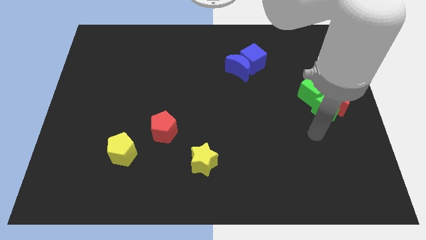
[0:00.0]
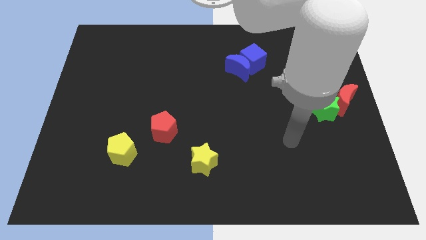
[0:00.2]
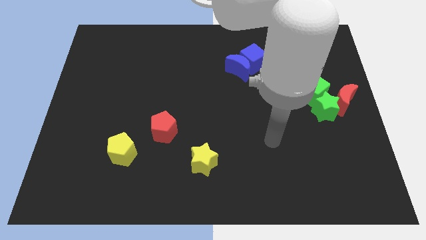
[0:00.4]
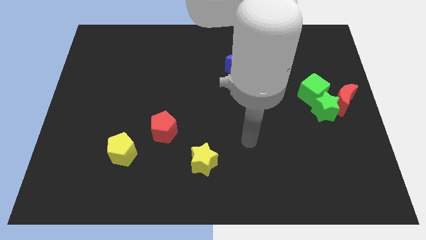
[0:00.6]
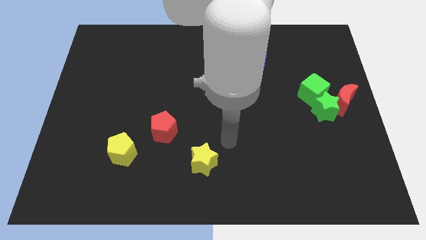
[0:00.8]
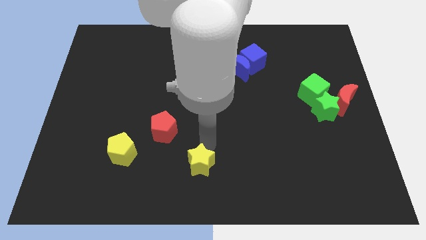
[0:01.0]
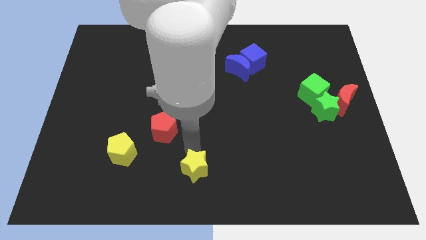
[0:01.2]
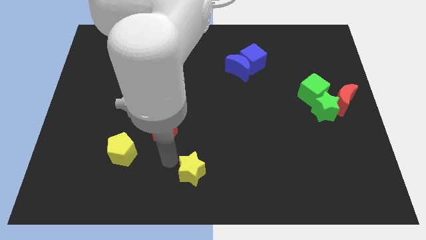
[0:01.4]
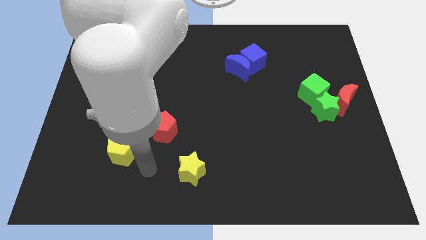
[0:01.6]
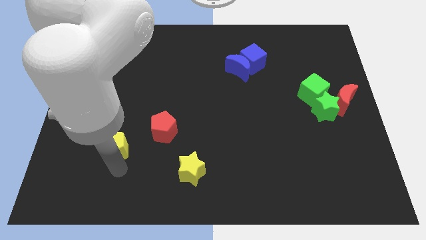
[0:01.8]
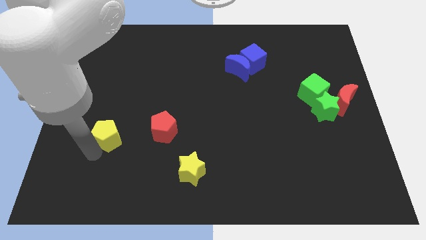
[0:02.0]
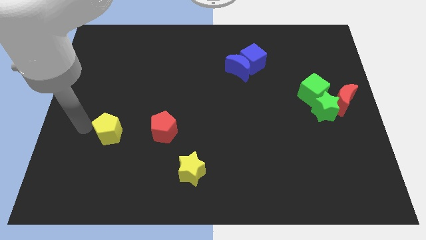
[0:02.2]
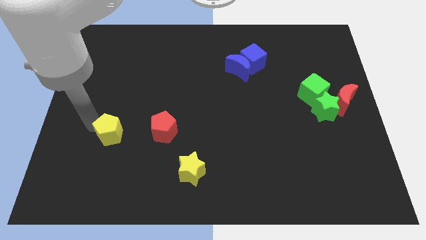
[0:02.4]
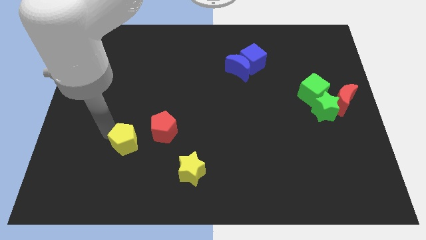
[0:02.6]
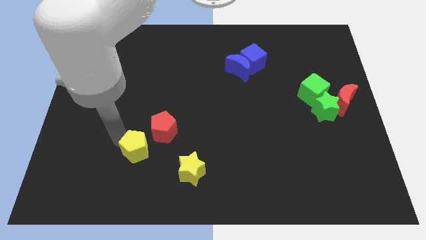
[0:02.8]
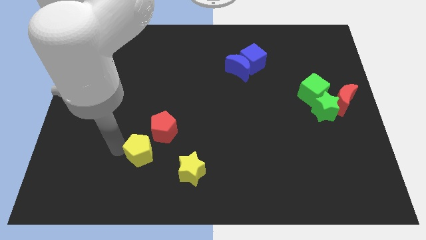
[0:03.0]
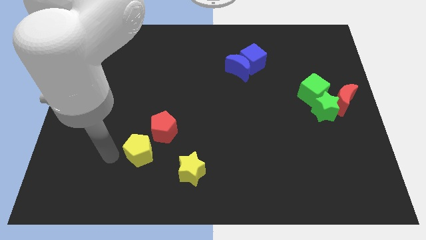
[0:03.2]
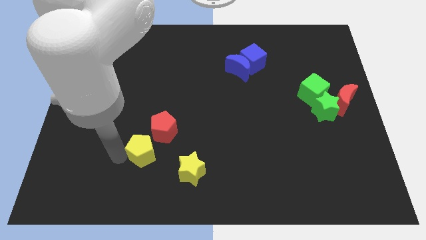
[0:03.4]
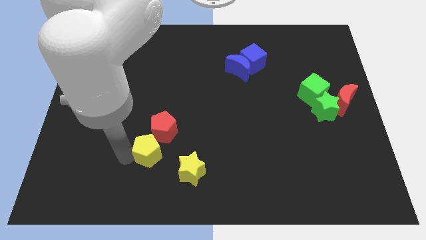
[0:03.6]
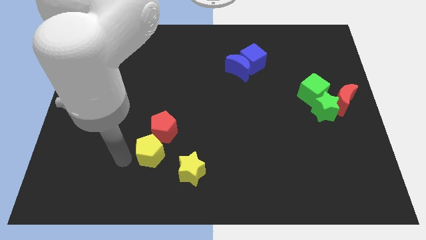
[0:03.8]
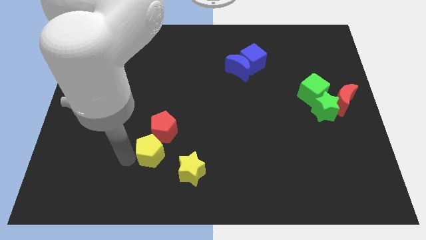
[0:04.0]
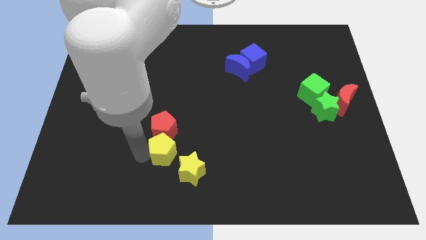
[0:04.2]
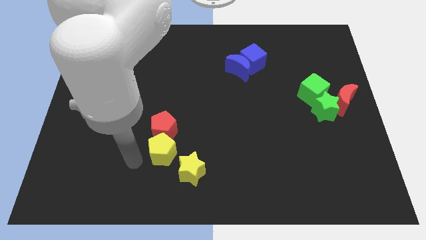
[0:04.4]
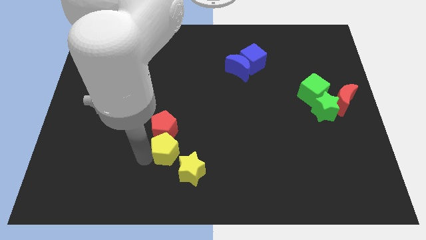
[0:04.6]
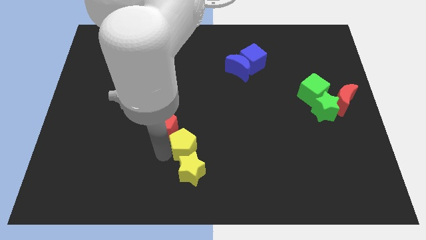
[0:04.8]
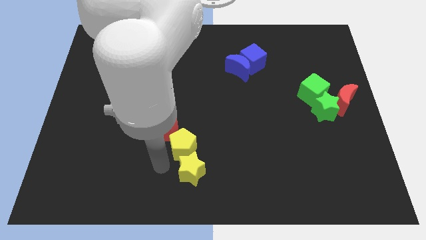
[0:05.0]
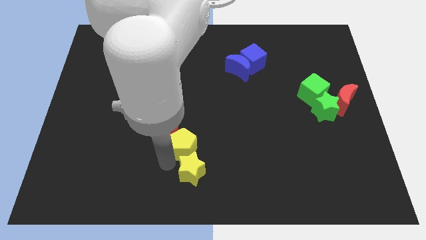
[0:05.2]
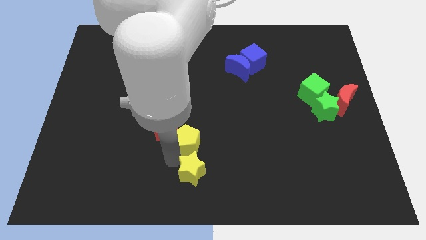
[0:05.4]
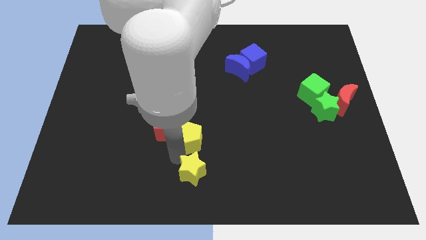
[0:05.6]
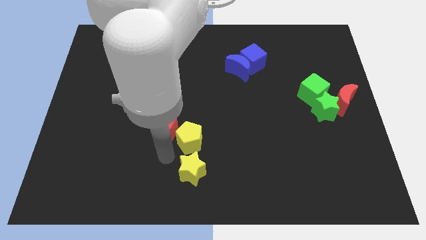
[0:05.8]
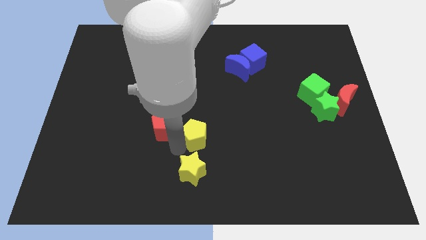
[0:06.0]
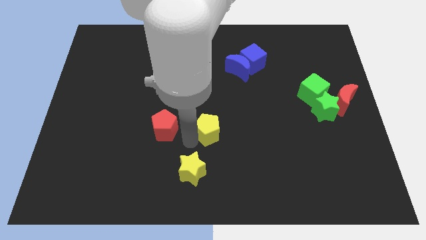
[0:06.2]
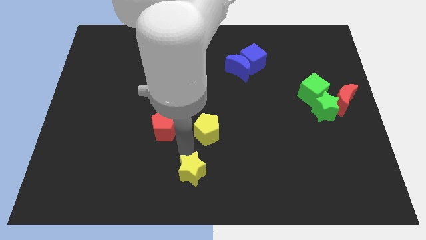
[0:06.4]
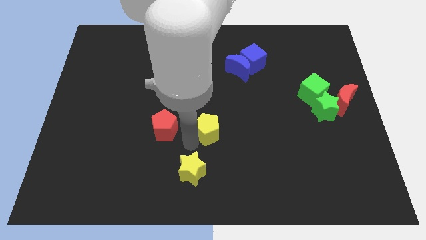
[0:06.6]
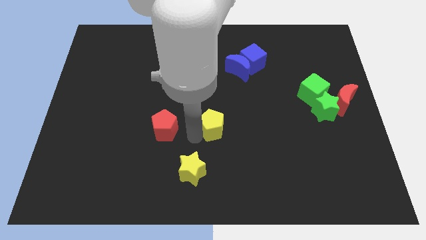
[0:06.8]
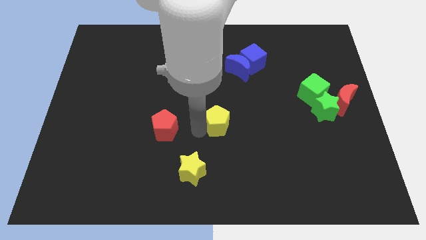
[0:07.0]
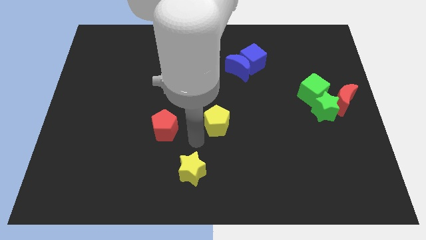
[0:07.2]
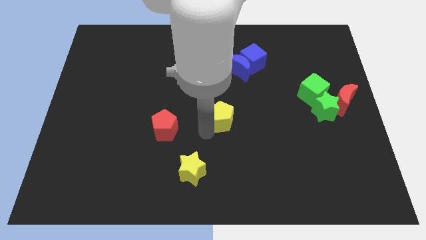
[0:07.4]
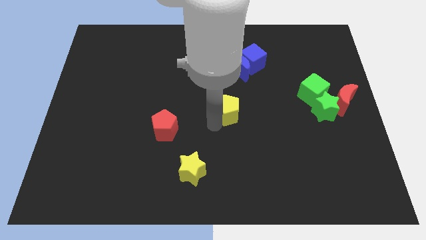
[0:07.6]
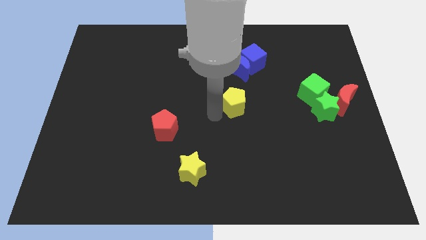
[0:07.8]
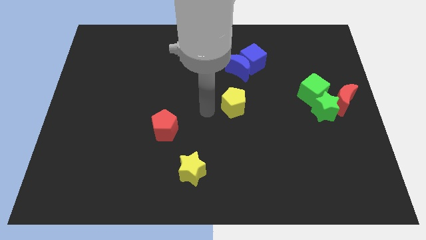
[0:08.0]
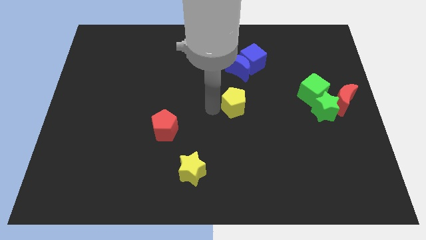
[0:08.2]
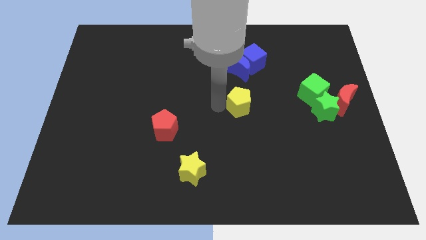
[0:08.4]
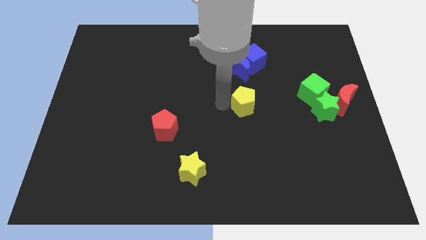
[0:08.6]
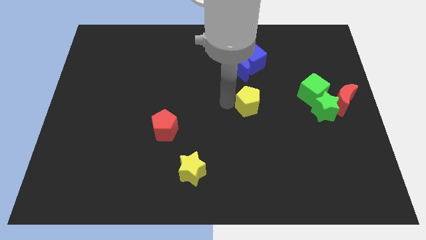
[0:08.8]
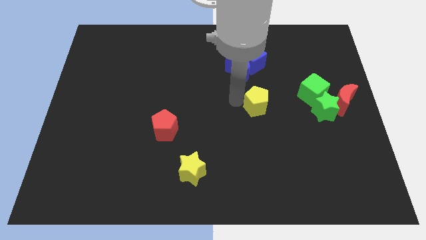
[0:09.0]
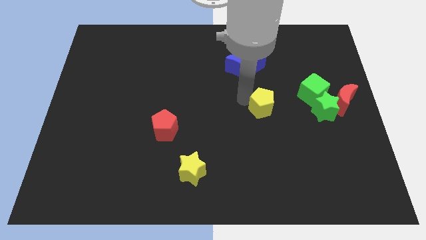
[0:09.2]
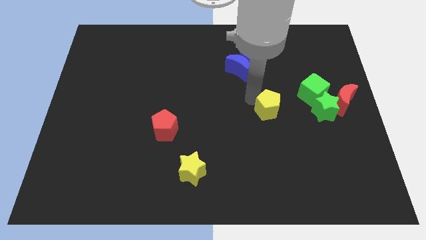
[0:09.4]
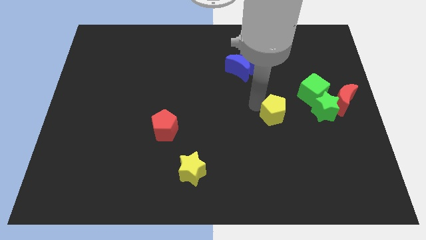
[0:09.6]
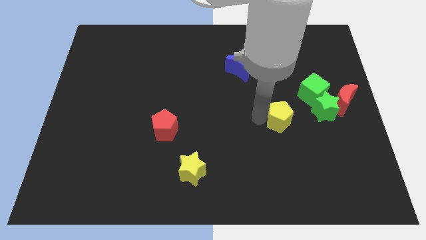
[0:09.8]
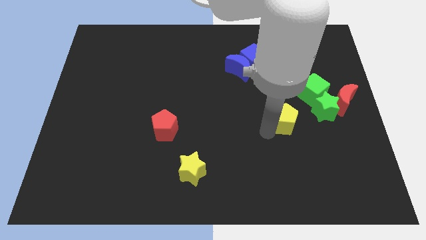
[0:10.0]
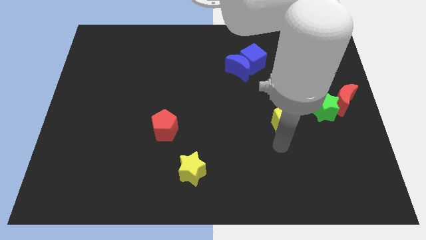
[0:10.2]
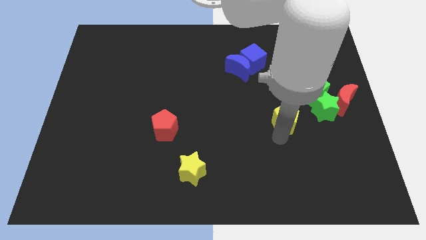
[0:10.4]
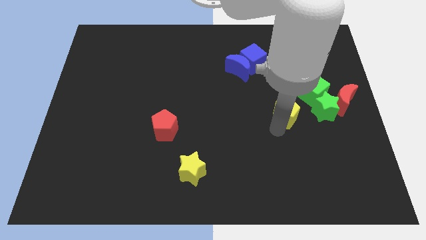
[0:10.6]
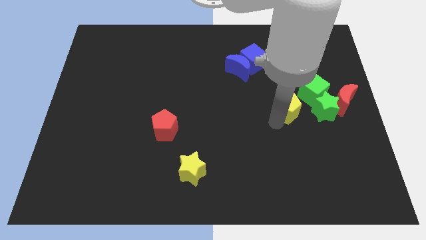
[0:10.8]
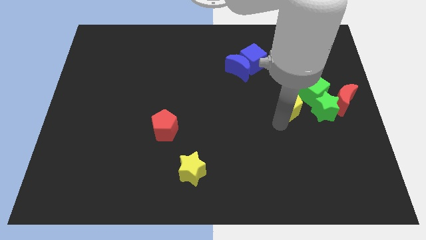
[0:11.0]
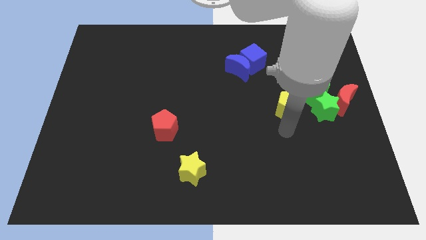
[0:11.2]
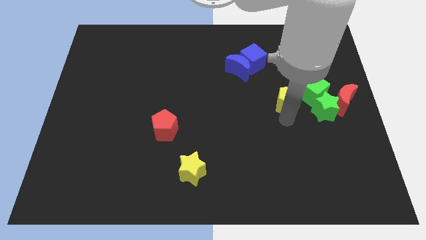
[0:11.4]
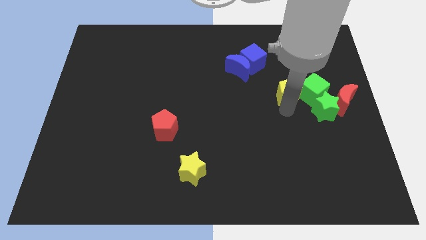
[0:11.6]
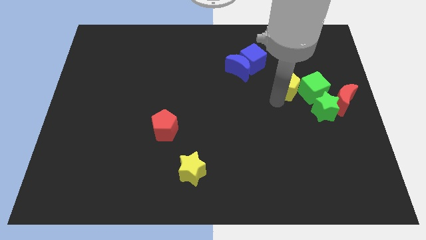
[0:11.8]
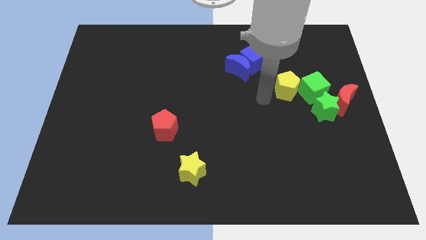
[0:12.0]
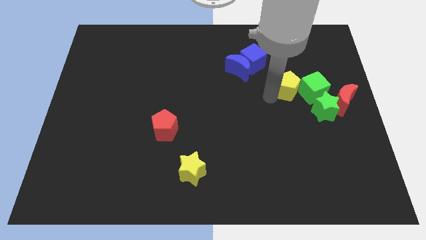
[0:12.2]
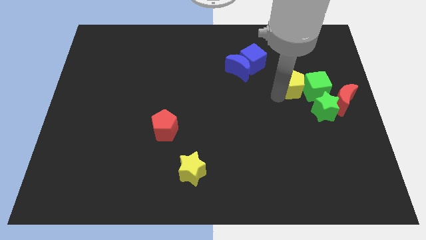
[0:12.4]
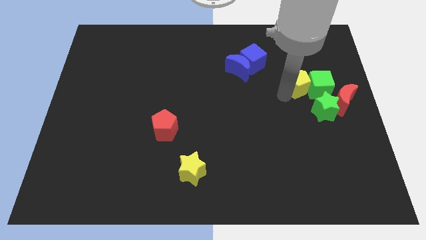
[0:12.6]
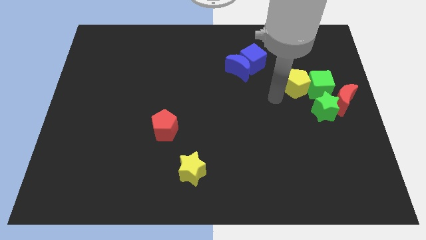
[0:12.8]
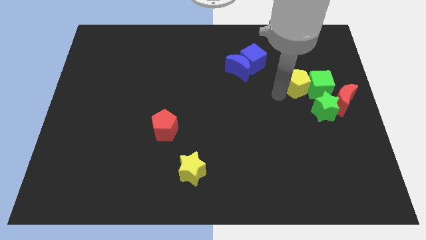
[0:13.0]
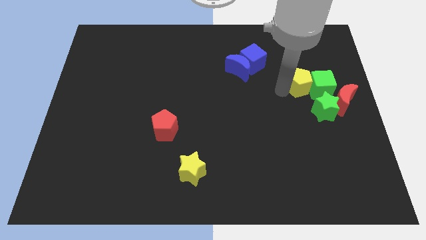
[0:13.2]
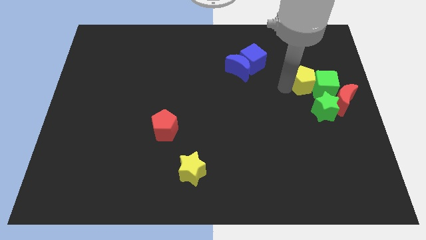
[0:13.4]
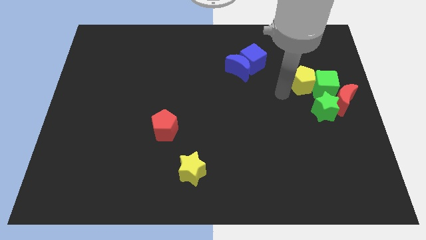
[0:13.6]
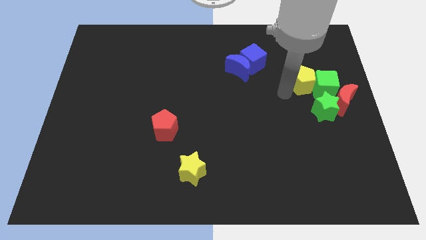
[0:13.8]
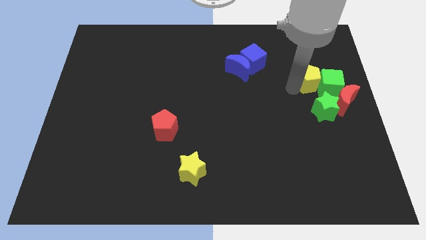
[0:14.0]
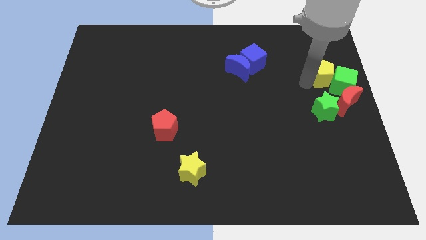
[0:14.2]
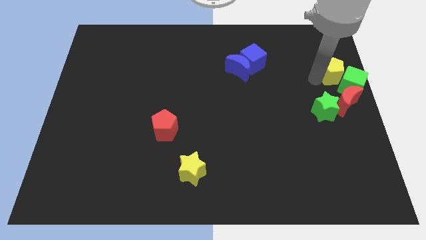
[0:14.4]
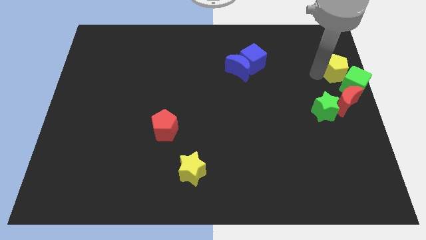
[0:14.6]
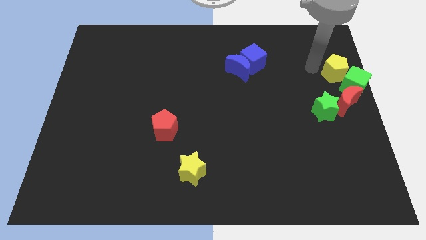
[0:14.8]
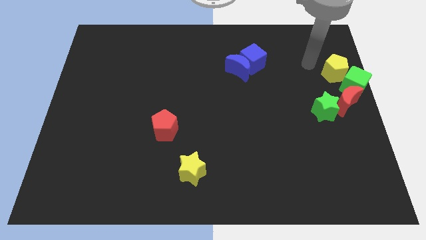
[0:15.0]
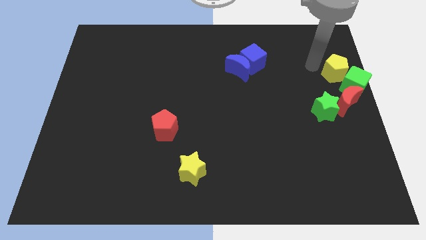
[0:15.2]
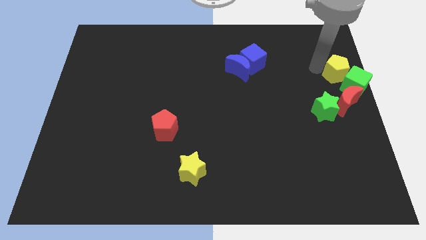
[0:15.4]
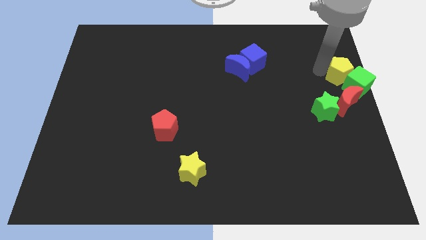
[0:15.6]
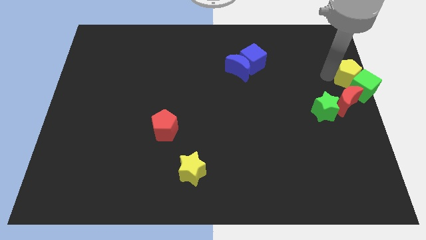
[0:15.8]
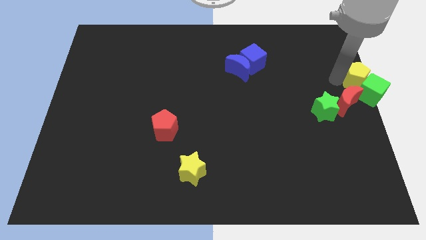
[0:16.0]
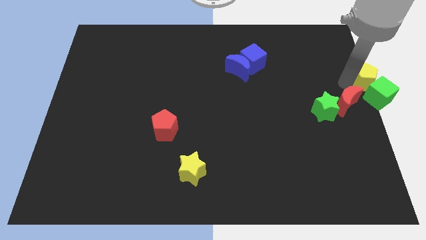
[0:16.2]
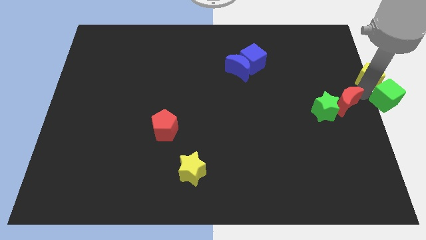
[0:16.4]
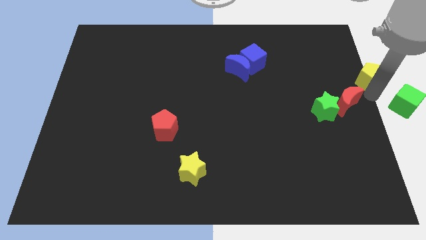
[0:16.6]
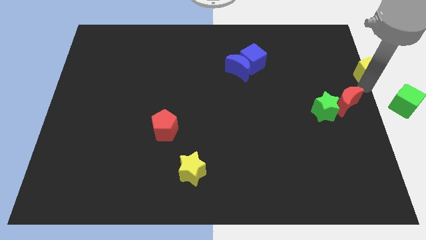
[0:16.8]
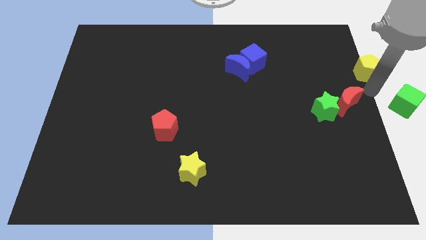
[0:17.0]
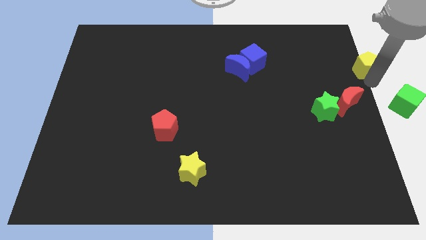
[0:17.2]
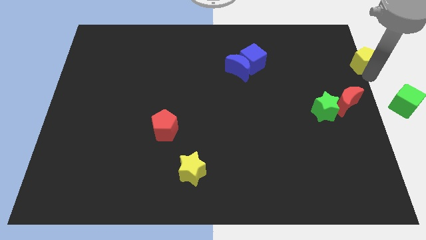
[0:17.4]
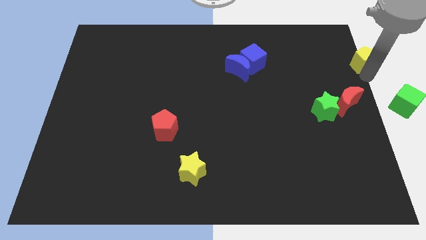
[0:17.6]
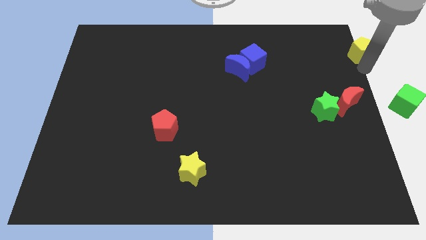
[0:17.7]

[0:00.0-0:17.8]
slide the yellow pentagon to the top right of the board
